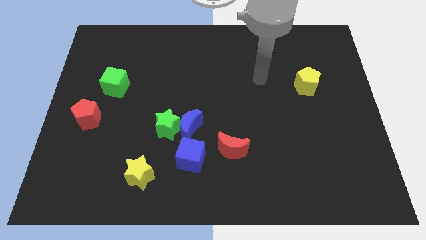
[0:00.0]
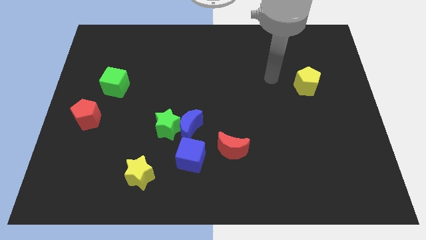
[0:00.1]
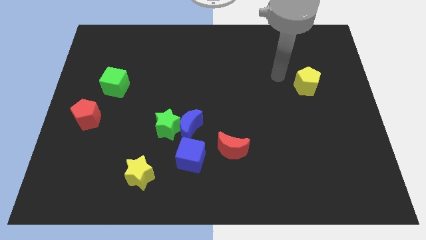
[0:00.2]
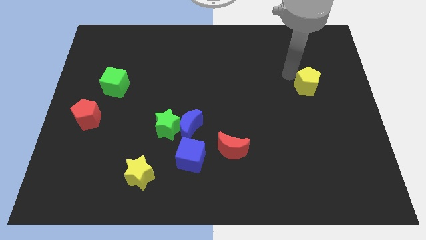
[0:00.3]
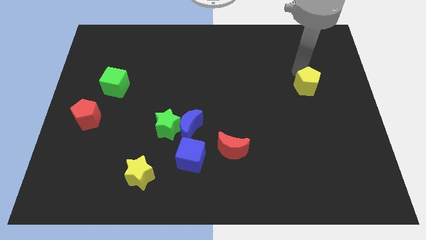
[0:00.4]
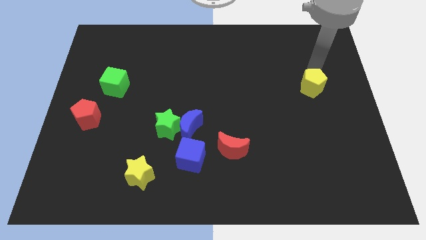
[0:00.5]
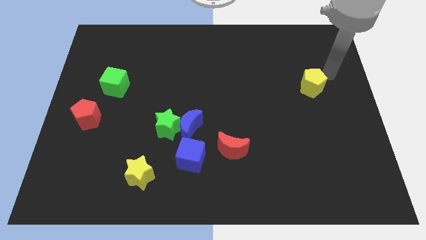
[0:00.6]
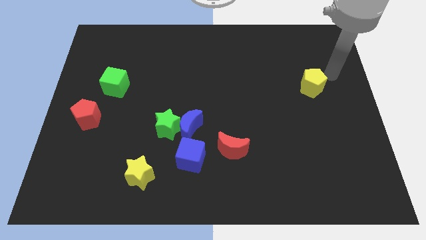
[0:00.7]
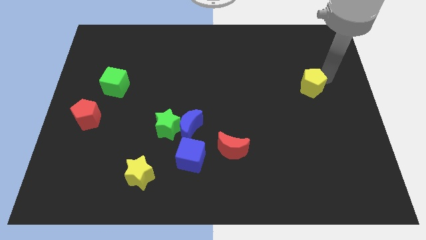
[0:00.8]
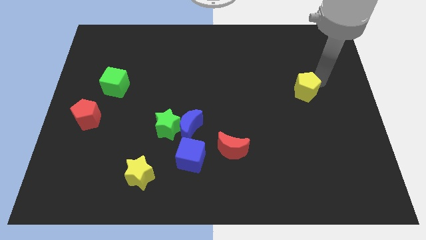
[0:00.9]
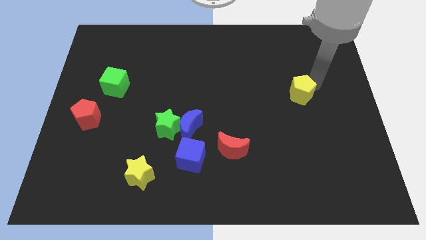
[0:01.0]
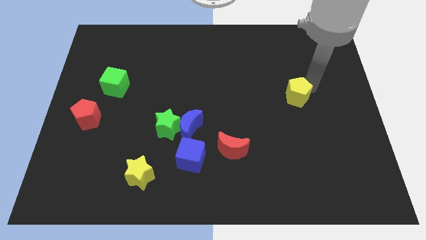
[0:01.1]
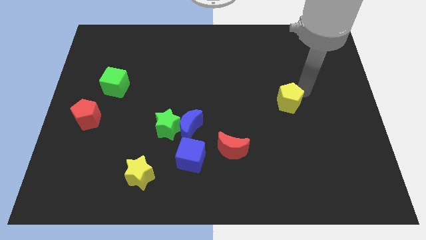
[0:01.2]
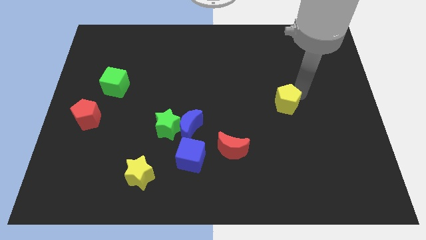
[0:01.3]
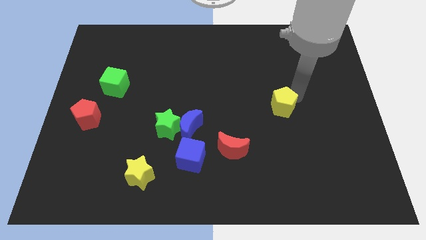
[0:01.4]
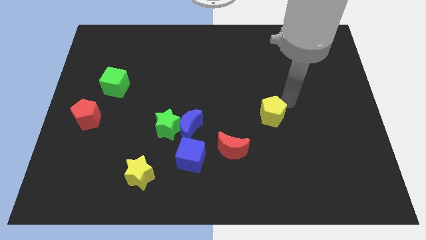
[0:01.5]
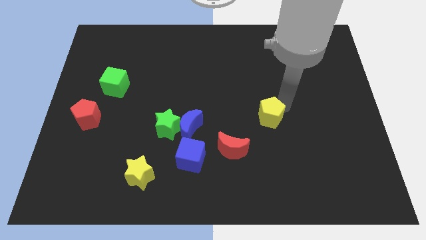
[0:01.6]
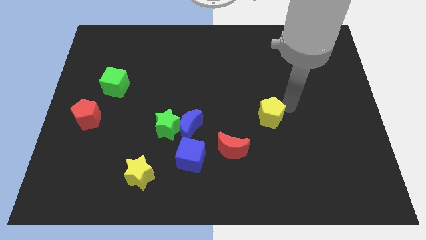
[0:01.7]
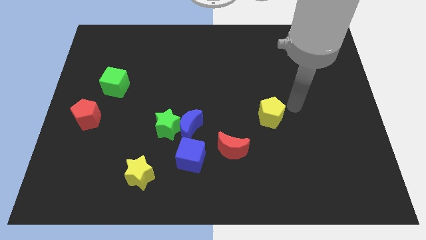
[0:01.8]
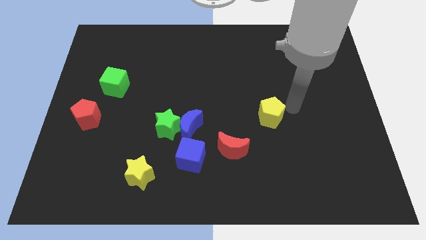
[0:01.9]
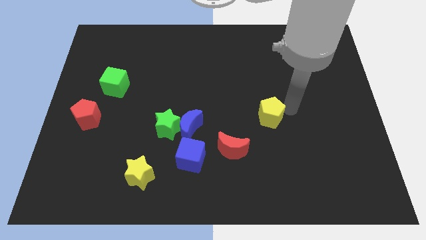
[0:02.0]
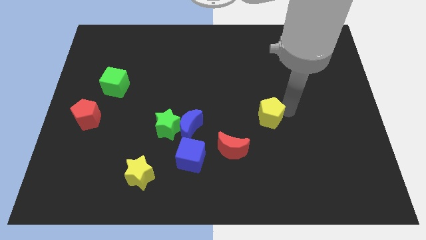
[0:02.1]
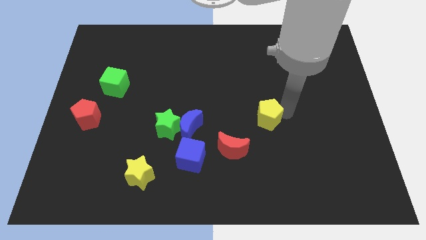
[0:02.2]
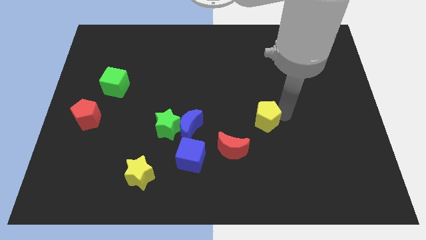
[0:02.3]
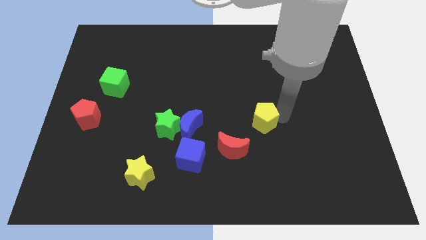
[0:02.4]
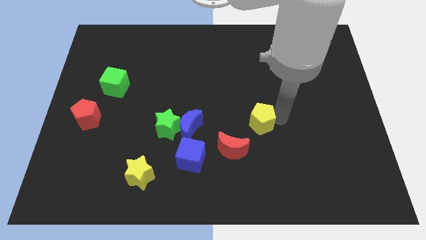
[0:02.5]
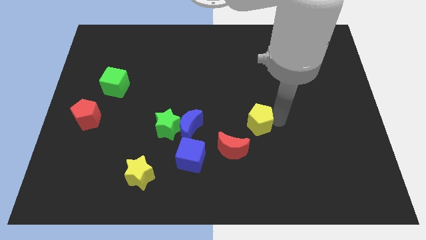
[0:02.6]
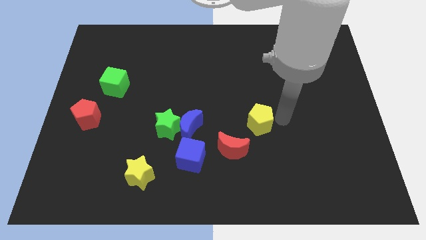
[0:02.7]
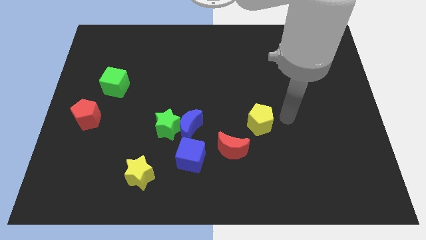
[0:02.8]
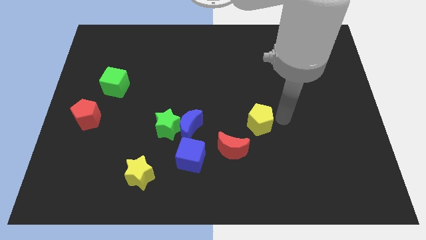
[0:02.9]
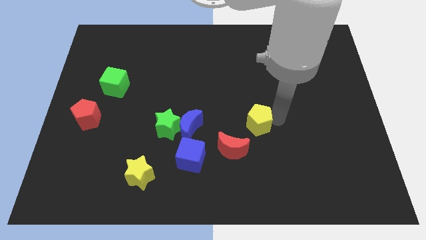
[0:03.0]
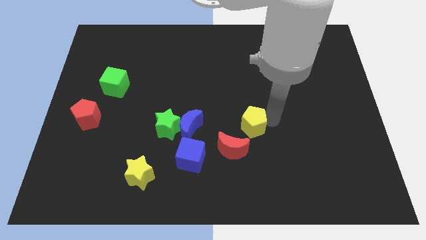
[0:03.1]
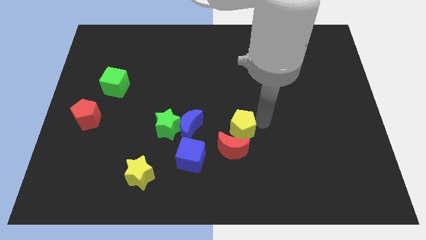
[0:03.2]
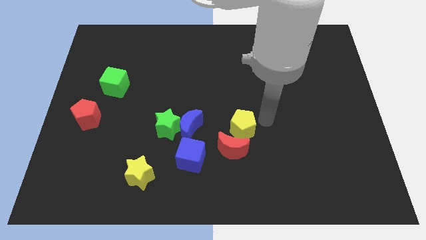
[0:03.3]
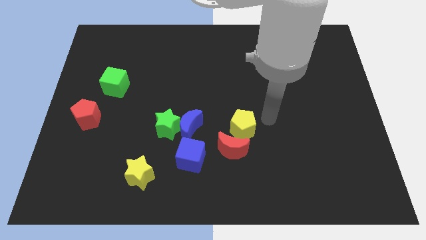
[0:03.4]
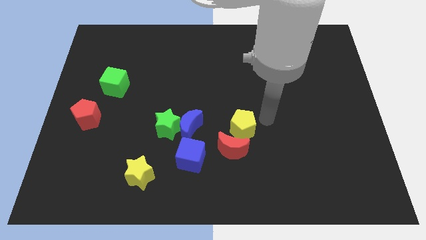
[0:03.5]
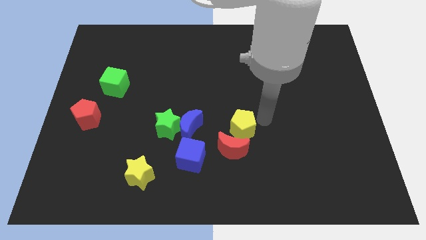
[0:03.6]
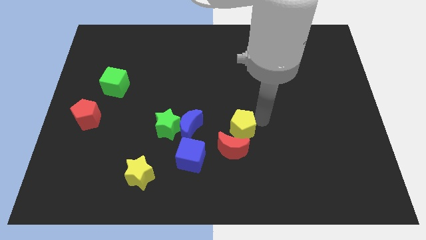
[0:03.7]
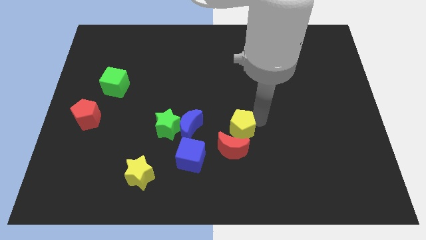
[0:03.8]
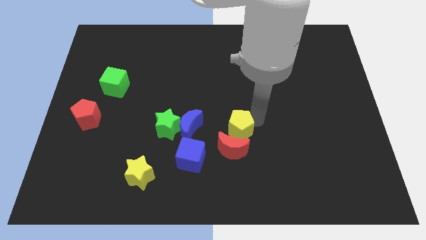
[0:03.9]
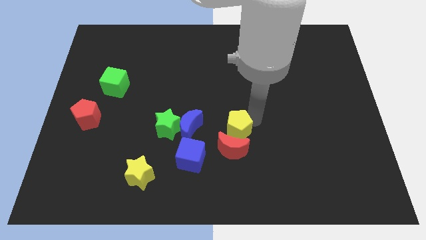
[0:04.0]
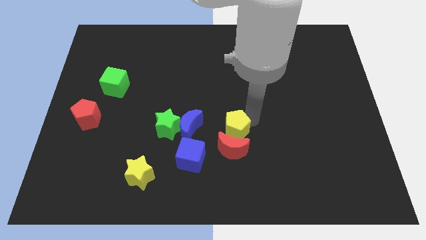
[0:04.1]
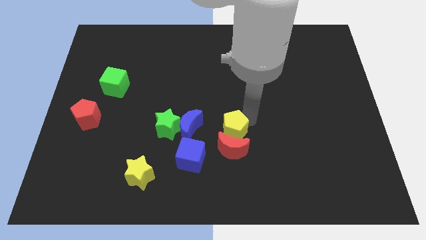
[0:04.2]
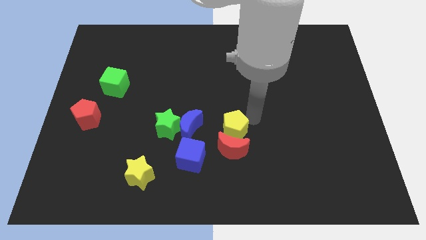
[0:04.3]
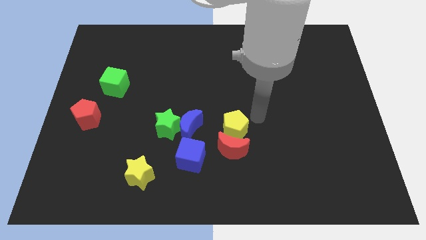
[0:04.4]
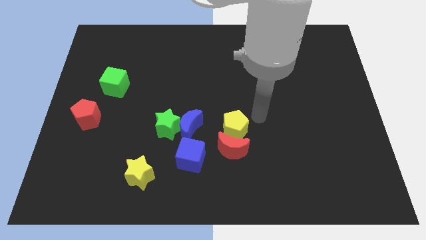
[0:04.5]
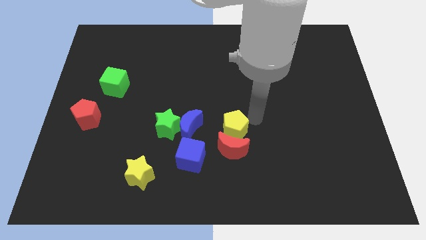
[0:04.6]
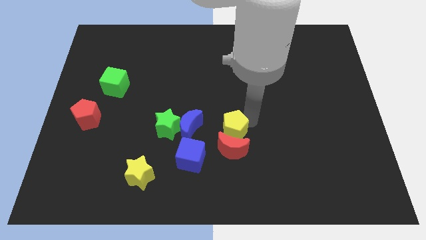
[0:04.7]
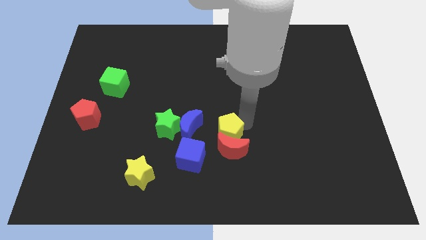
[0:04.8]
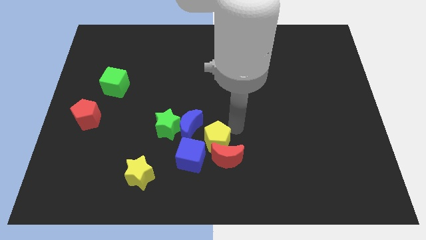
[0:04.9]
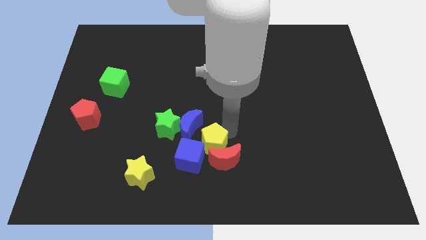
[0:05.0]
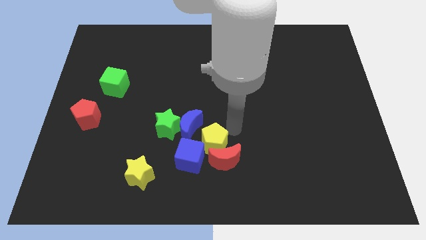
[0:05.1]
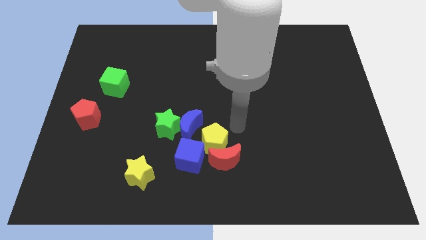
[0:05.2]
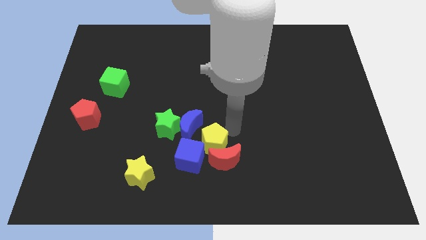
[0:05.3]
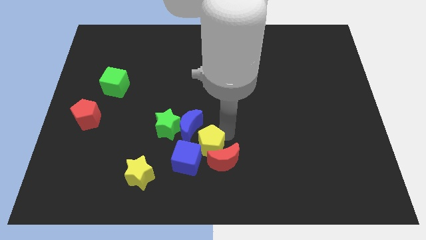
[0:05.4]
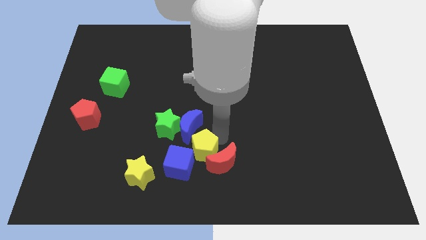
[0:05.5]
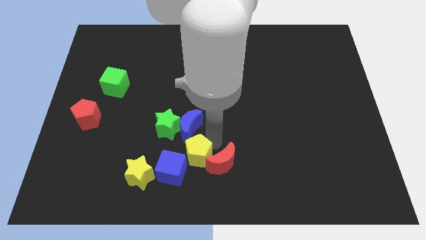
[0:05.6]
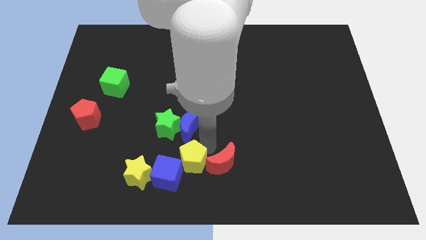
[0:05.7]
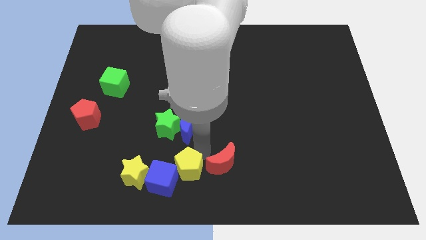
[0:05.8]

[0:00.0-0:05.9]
put the yellow pentagon close to the blue cube

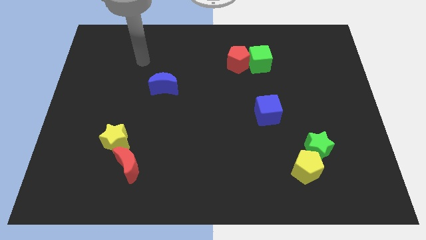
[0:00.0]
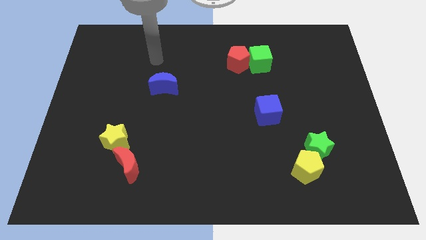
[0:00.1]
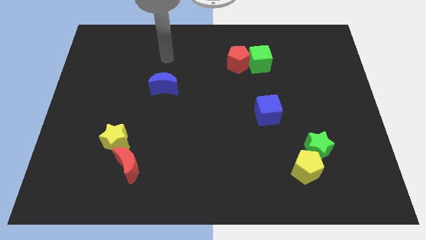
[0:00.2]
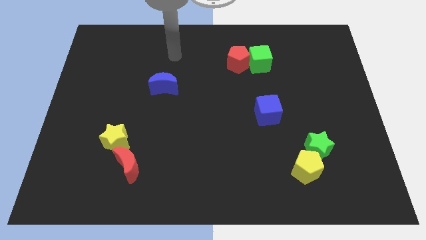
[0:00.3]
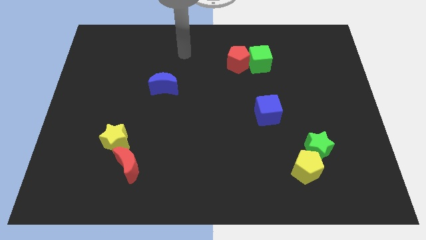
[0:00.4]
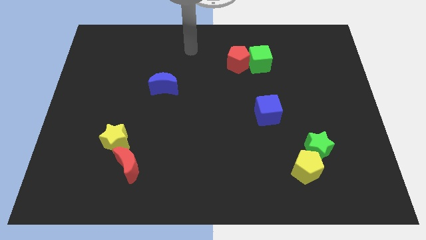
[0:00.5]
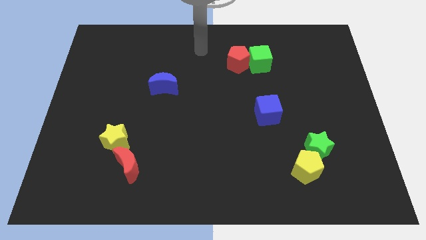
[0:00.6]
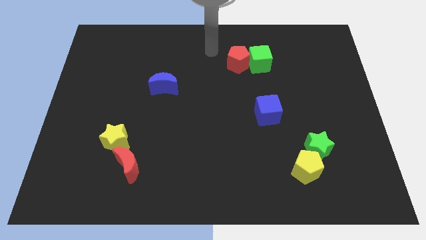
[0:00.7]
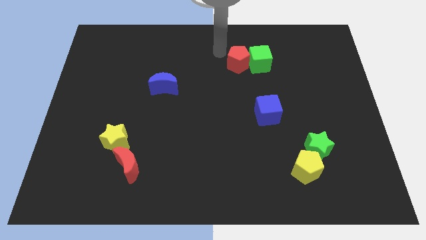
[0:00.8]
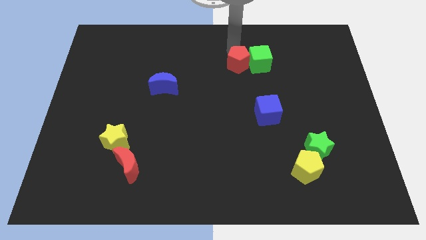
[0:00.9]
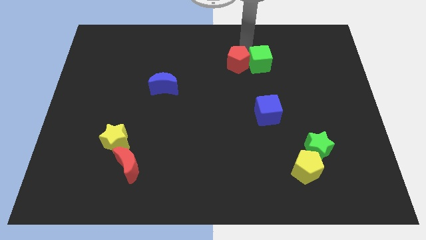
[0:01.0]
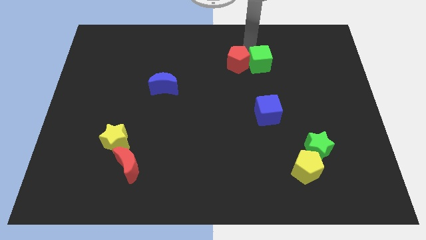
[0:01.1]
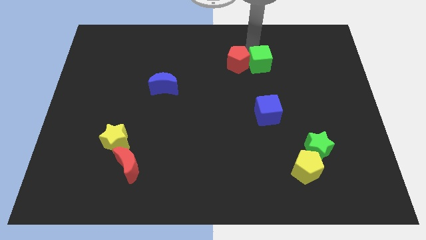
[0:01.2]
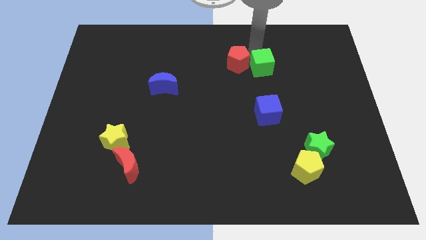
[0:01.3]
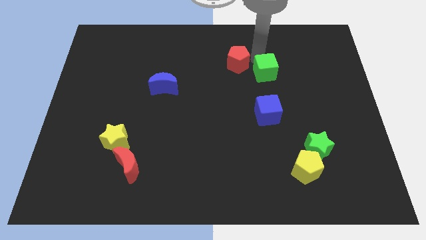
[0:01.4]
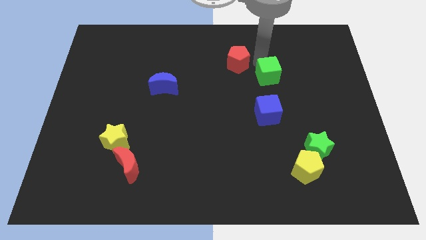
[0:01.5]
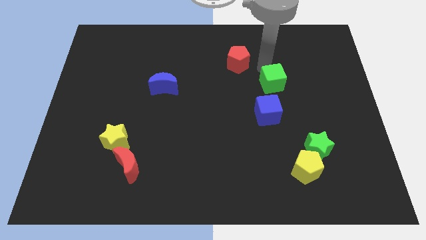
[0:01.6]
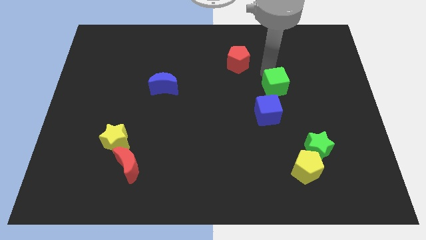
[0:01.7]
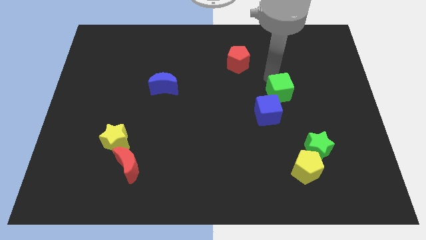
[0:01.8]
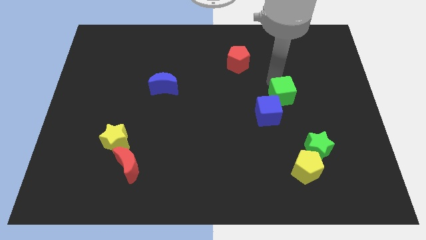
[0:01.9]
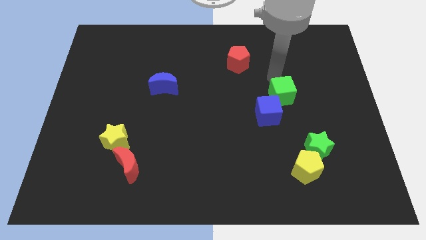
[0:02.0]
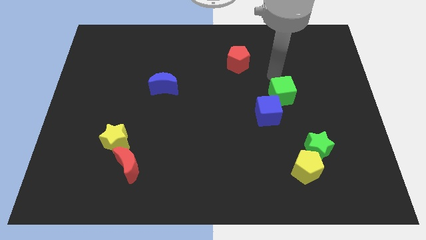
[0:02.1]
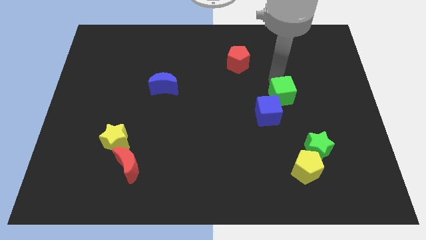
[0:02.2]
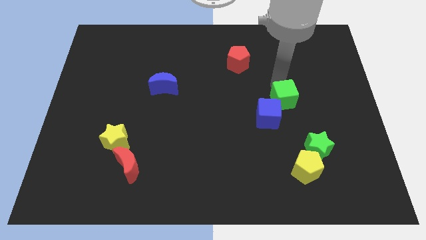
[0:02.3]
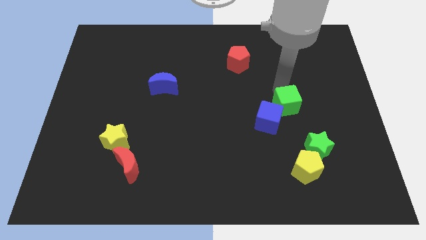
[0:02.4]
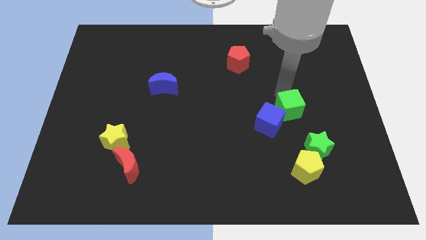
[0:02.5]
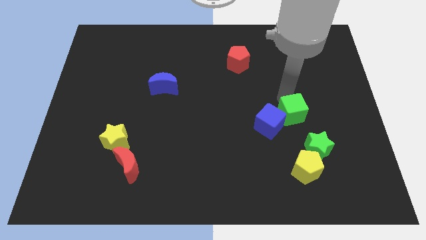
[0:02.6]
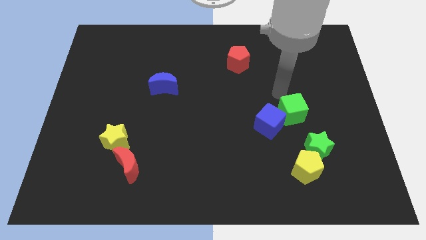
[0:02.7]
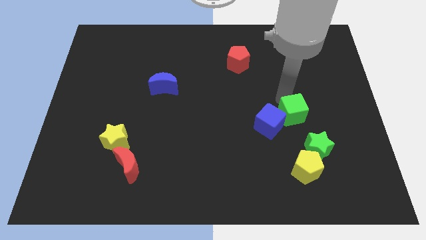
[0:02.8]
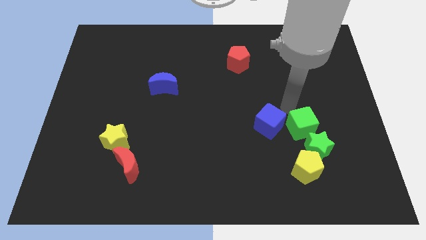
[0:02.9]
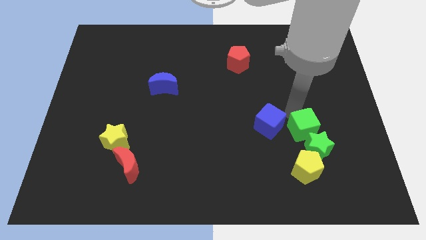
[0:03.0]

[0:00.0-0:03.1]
put the green cube to the green star
